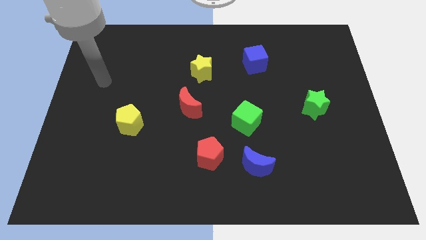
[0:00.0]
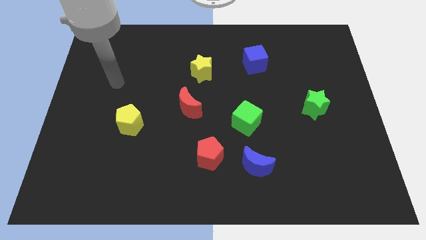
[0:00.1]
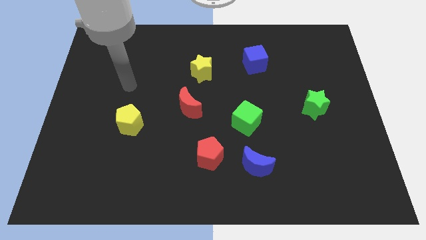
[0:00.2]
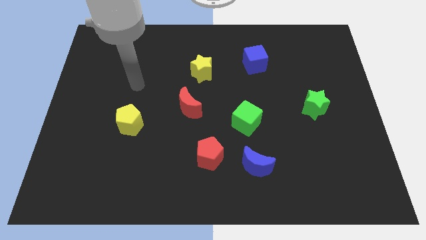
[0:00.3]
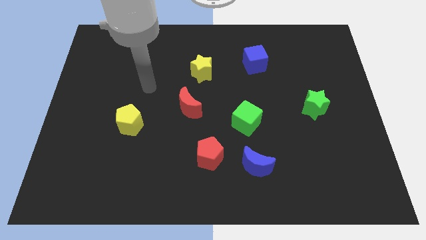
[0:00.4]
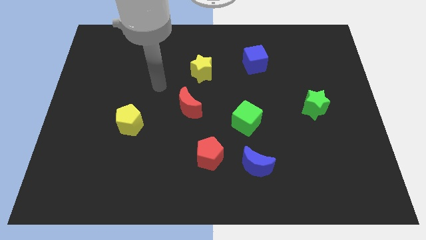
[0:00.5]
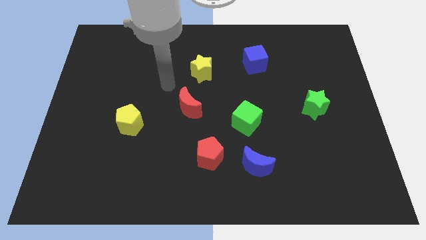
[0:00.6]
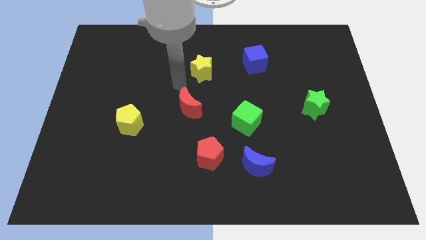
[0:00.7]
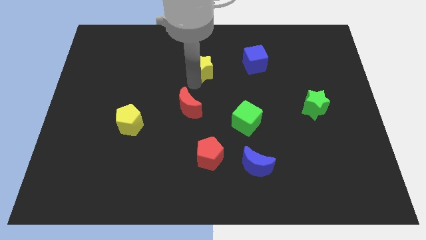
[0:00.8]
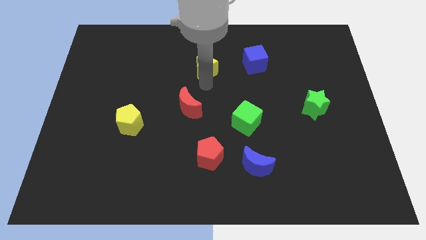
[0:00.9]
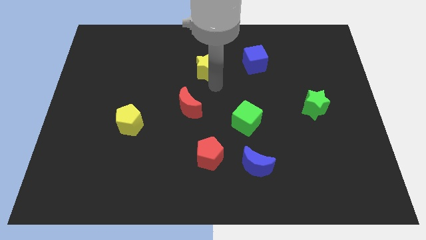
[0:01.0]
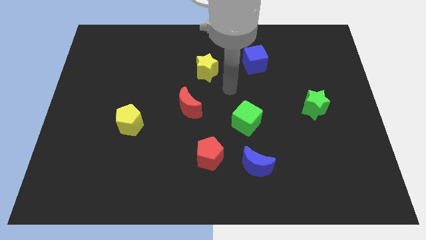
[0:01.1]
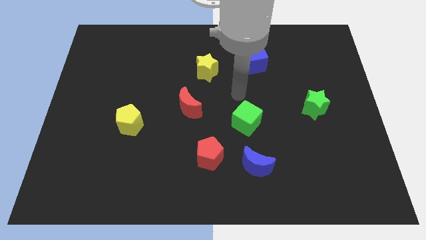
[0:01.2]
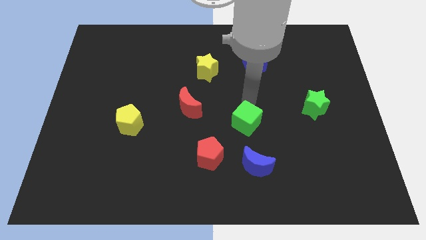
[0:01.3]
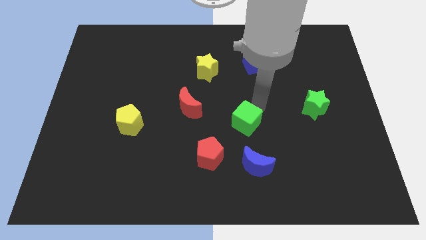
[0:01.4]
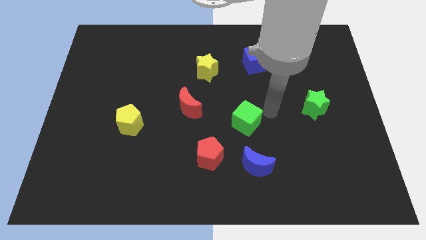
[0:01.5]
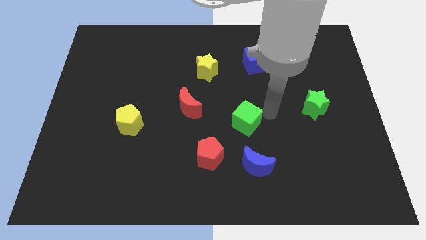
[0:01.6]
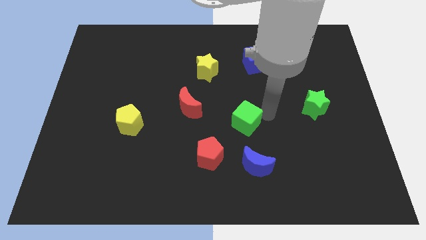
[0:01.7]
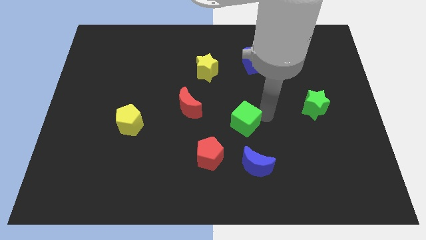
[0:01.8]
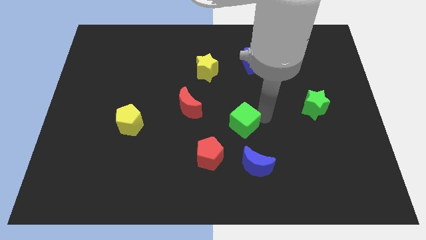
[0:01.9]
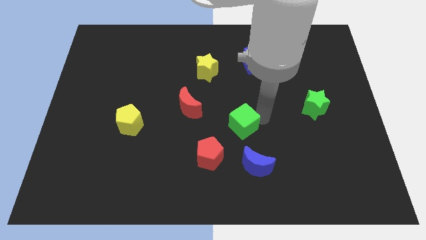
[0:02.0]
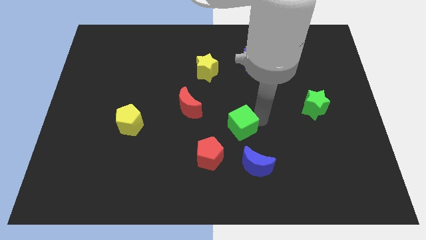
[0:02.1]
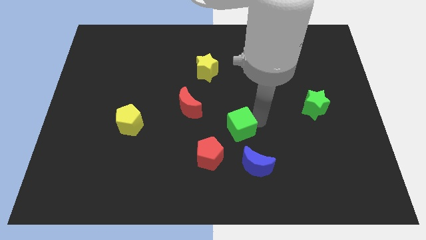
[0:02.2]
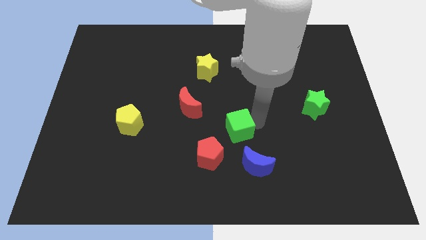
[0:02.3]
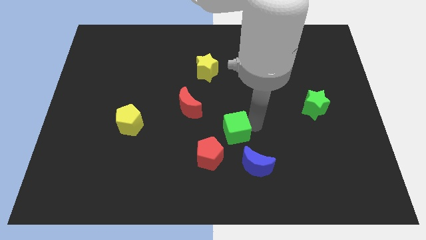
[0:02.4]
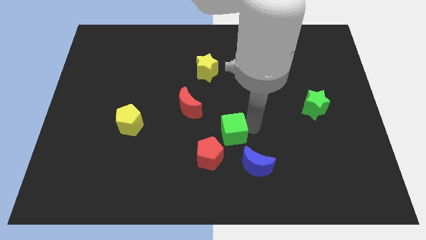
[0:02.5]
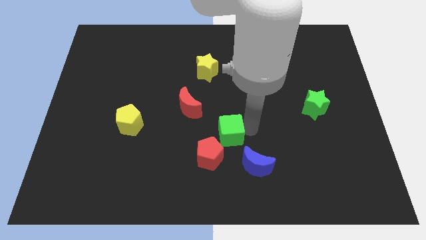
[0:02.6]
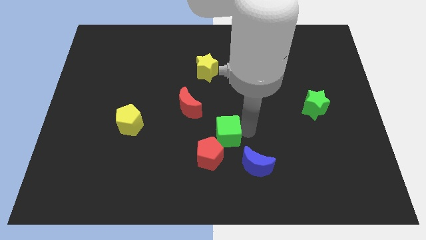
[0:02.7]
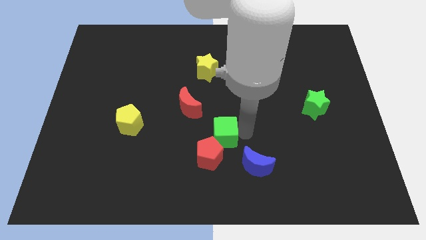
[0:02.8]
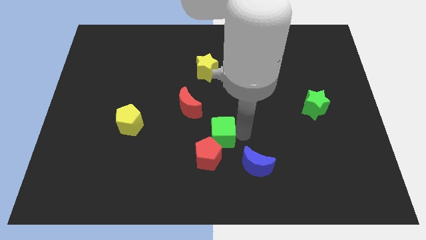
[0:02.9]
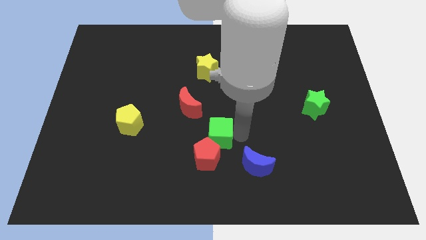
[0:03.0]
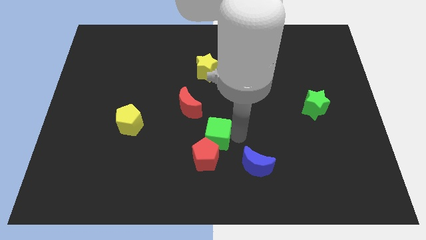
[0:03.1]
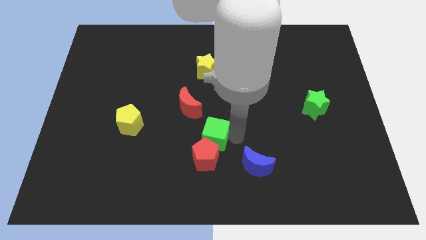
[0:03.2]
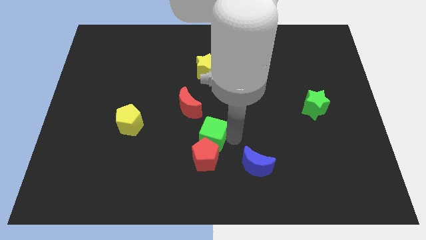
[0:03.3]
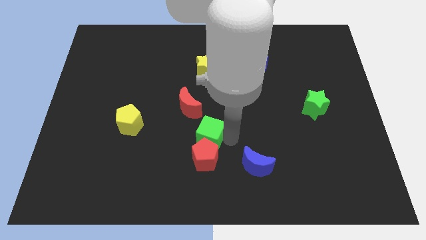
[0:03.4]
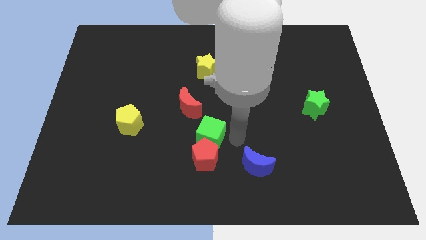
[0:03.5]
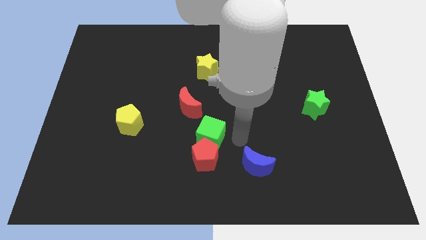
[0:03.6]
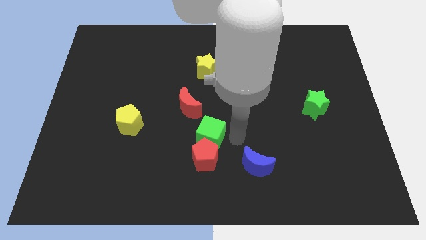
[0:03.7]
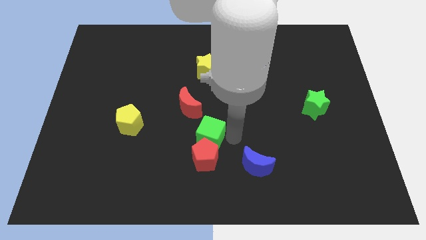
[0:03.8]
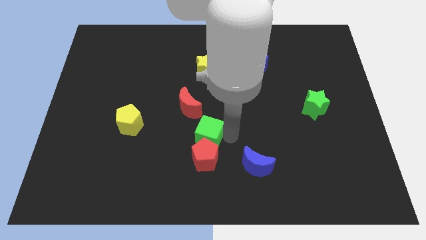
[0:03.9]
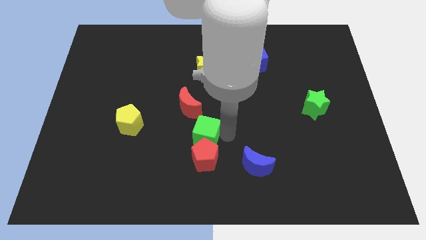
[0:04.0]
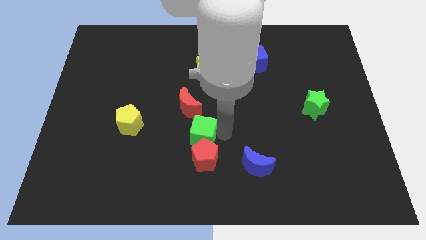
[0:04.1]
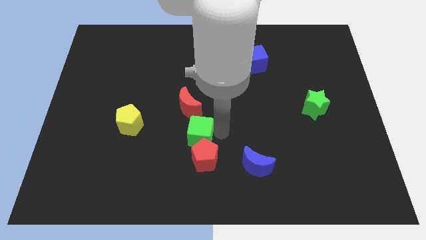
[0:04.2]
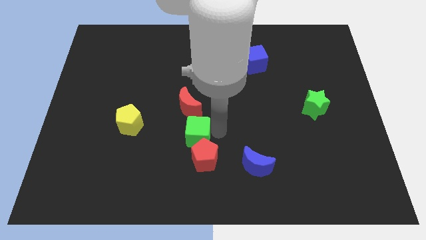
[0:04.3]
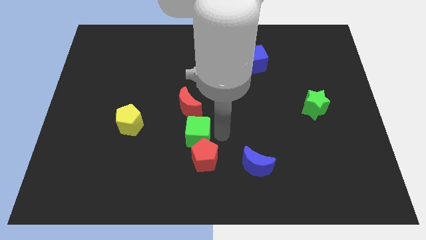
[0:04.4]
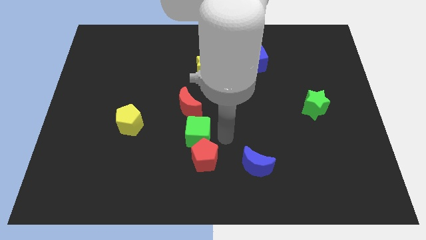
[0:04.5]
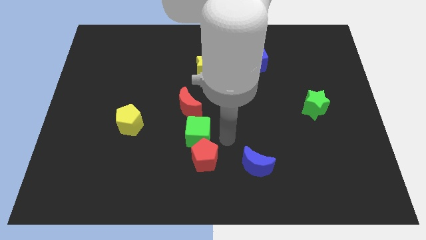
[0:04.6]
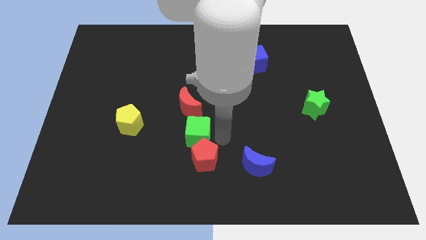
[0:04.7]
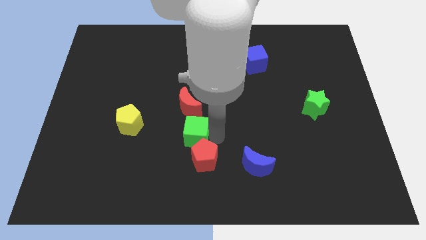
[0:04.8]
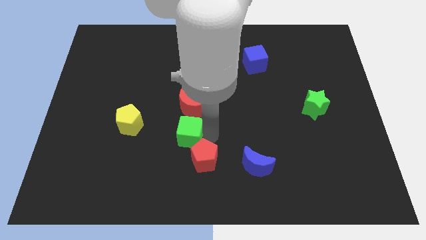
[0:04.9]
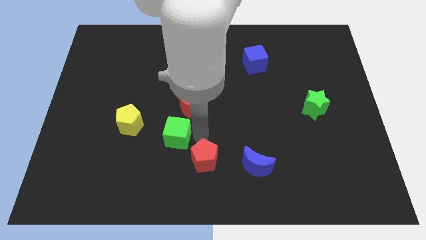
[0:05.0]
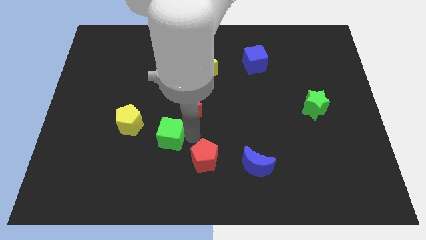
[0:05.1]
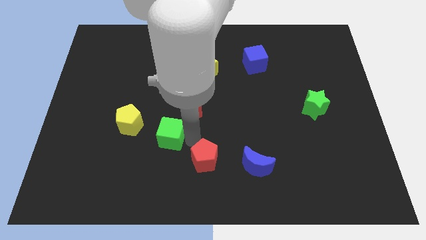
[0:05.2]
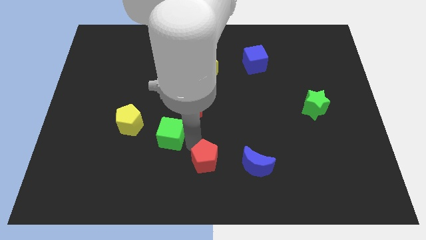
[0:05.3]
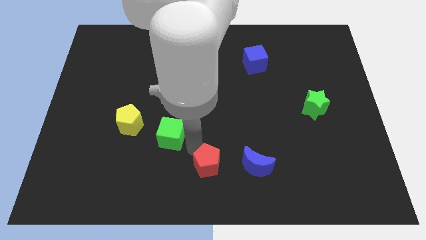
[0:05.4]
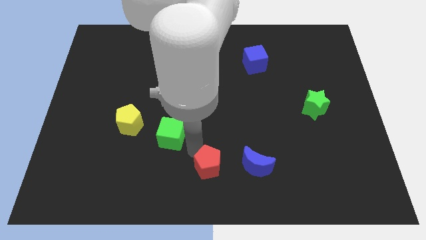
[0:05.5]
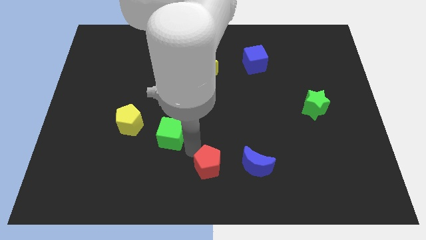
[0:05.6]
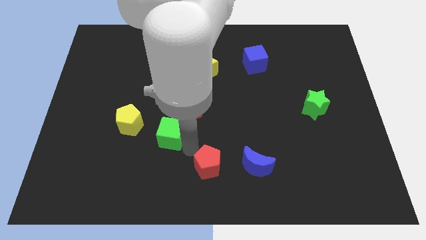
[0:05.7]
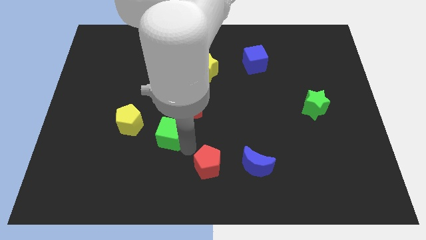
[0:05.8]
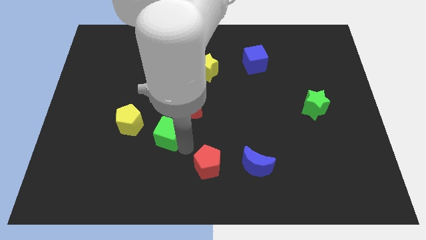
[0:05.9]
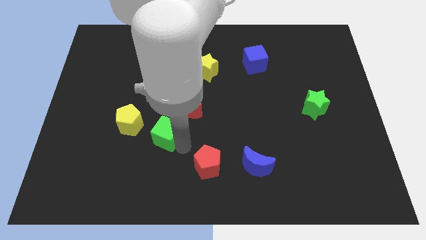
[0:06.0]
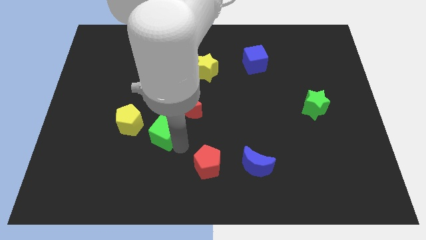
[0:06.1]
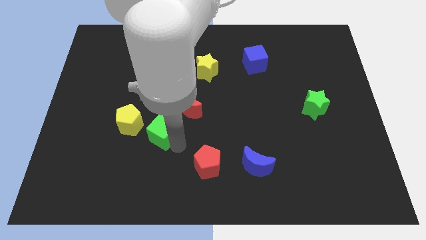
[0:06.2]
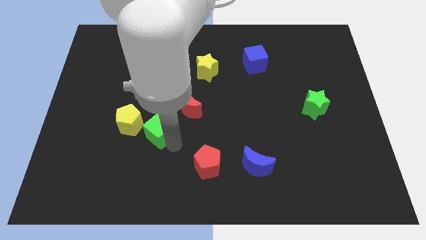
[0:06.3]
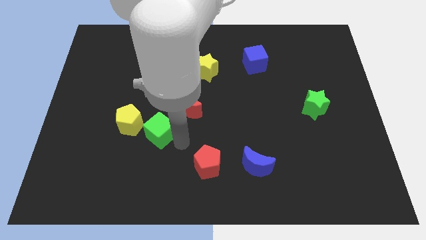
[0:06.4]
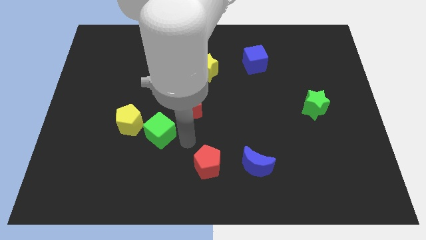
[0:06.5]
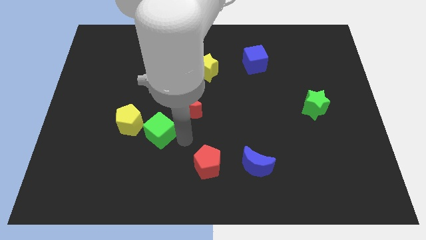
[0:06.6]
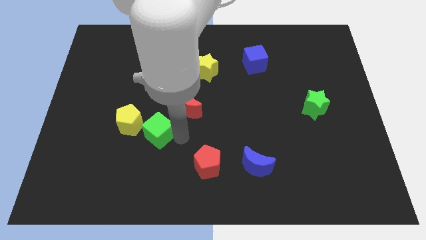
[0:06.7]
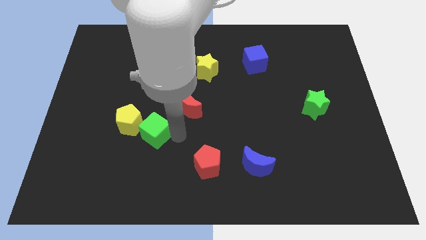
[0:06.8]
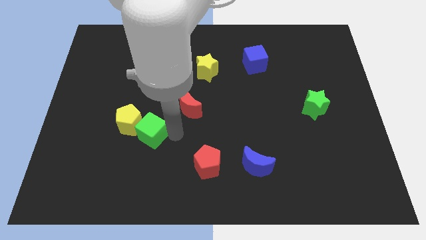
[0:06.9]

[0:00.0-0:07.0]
push the green cube to the yellow pentagon

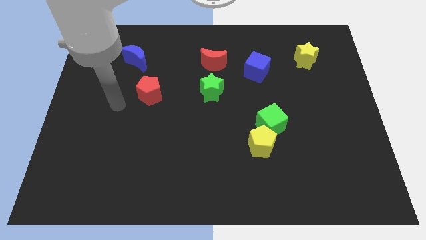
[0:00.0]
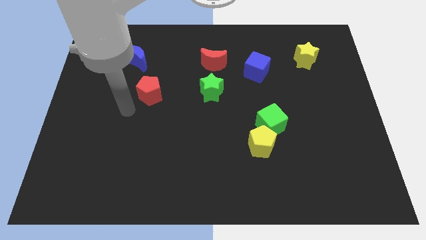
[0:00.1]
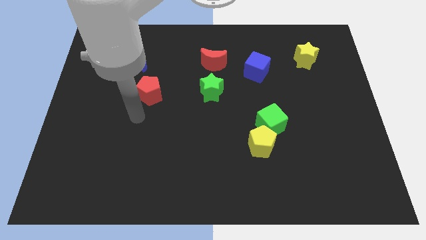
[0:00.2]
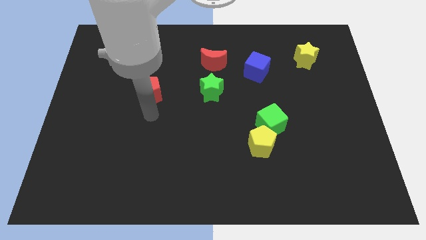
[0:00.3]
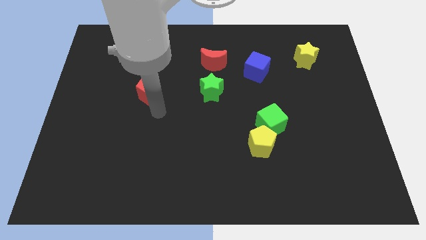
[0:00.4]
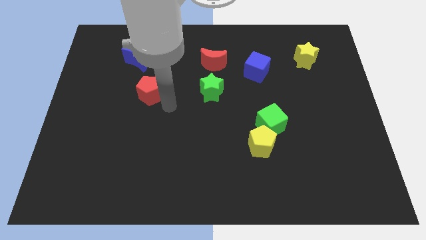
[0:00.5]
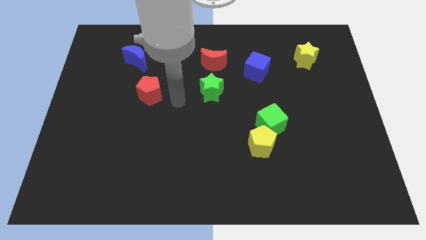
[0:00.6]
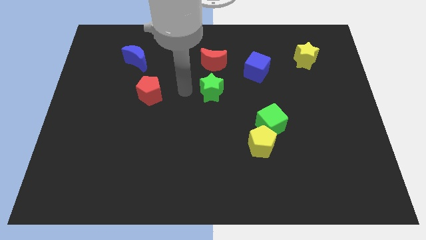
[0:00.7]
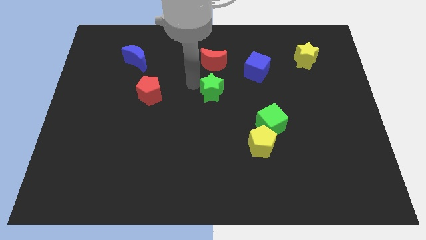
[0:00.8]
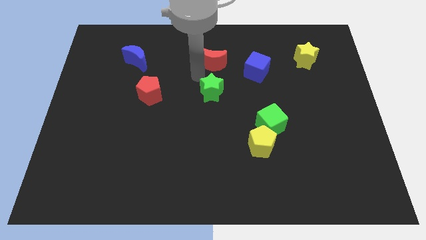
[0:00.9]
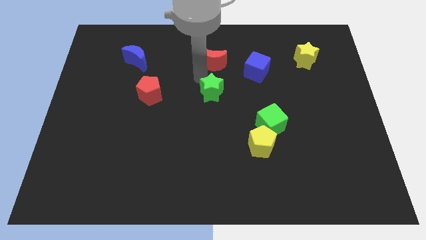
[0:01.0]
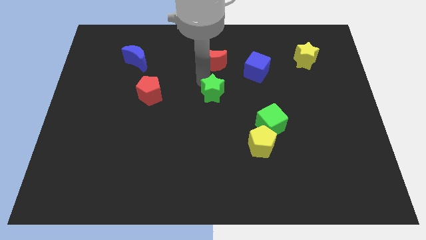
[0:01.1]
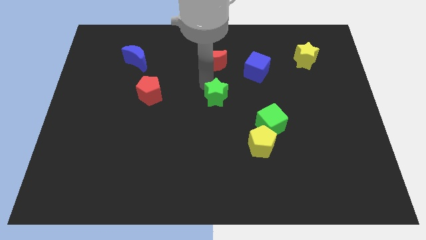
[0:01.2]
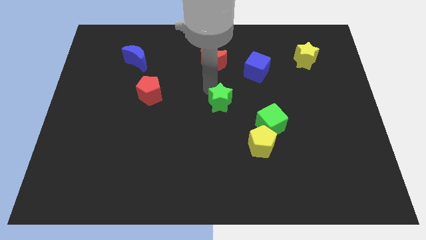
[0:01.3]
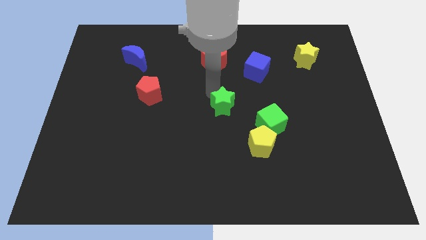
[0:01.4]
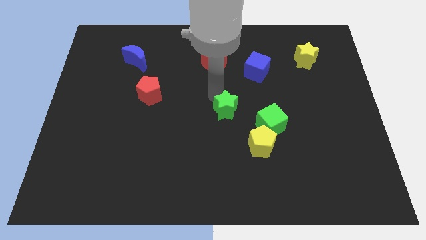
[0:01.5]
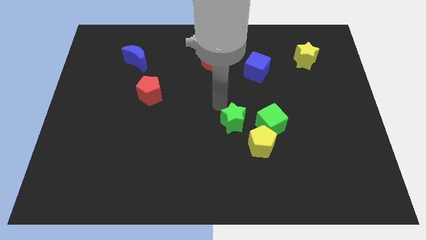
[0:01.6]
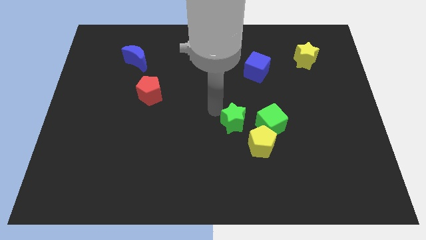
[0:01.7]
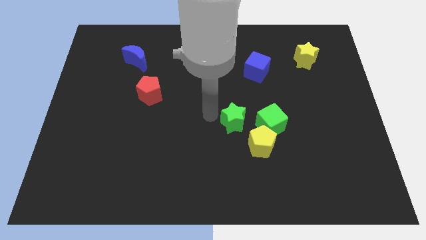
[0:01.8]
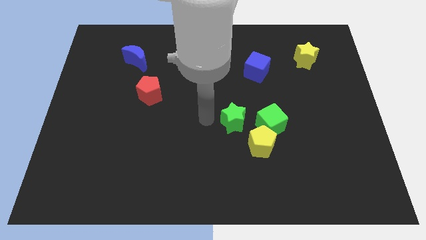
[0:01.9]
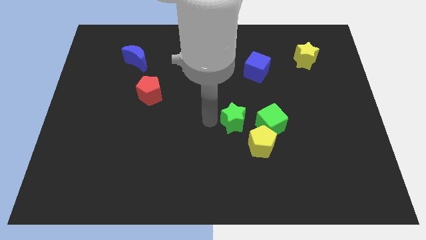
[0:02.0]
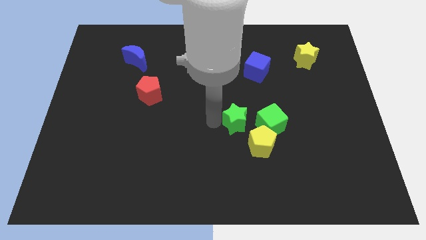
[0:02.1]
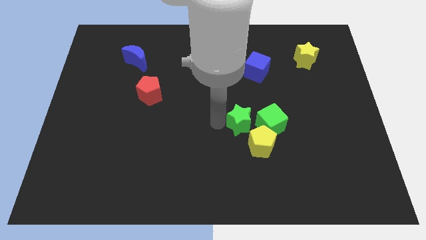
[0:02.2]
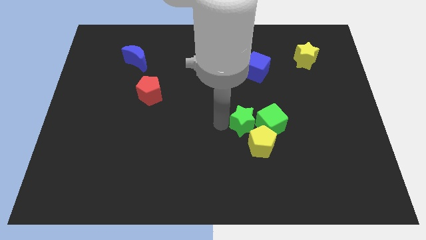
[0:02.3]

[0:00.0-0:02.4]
push the green star to the green cube
